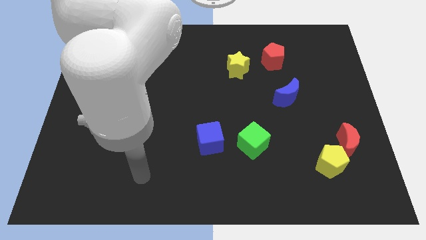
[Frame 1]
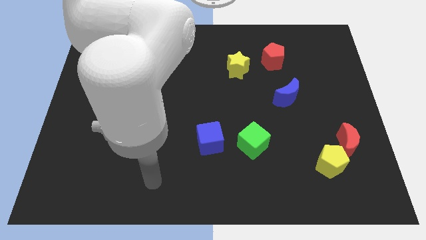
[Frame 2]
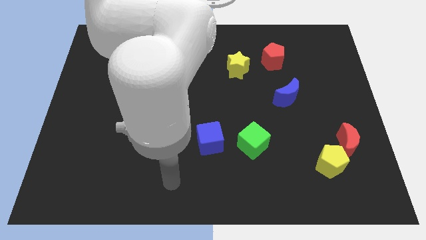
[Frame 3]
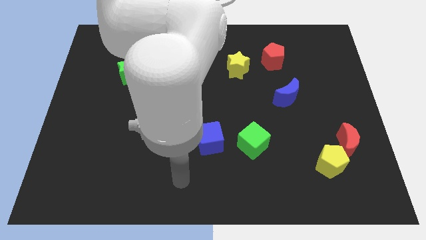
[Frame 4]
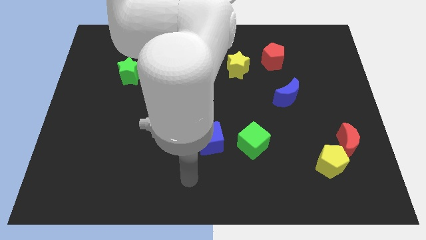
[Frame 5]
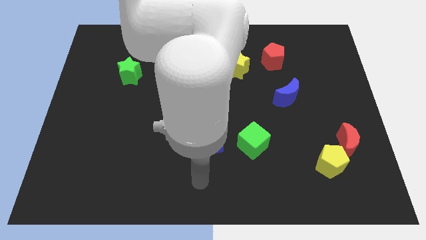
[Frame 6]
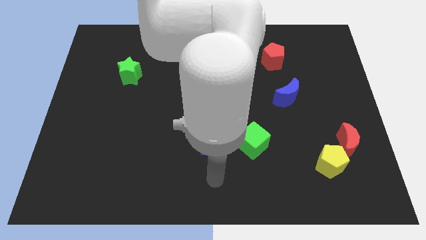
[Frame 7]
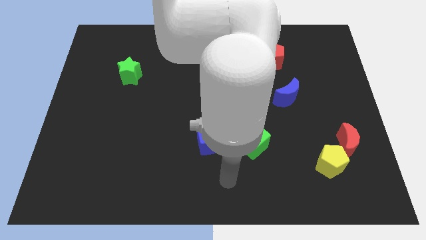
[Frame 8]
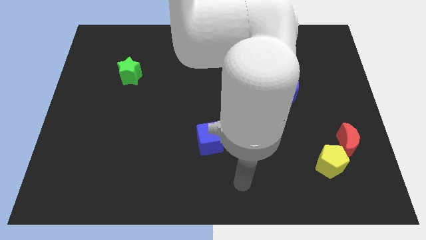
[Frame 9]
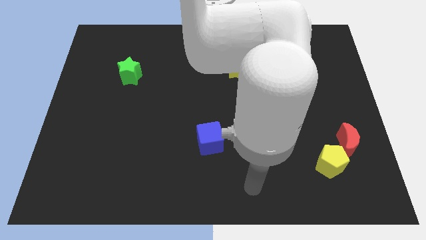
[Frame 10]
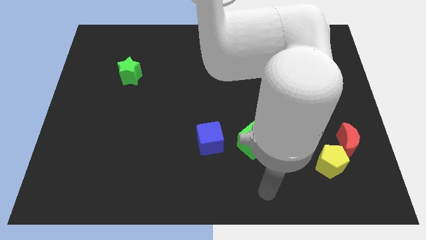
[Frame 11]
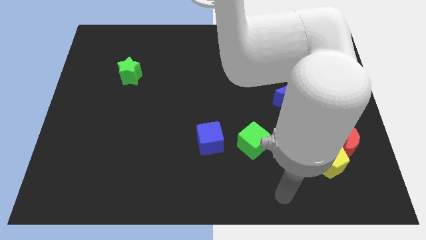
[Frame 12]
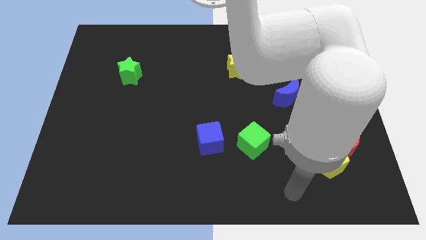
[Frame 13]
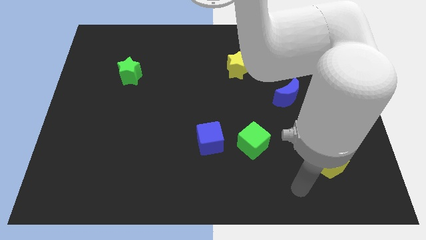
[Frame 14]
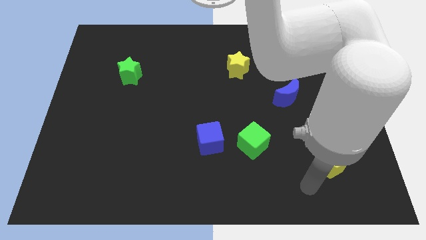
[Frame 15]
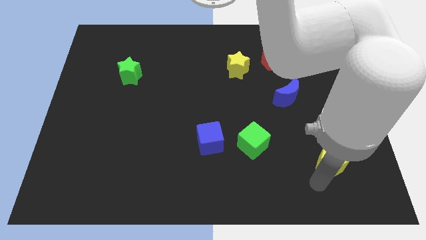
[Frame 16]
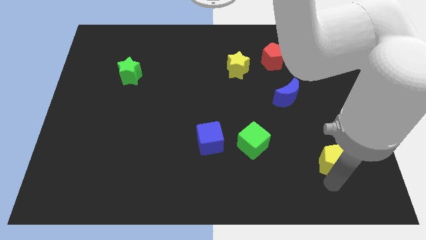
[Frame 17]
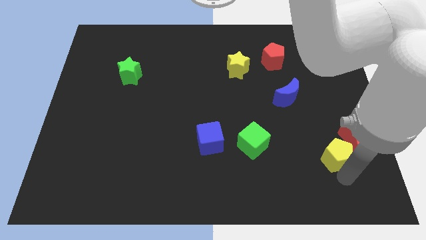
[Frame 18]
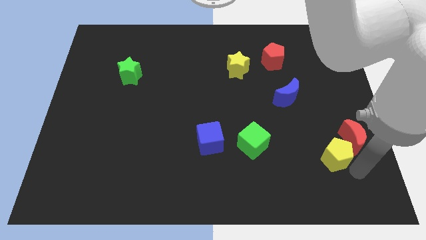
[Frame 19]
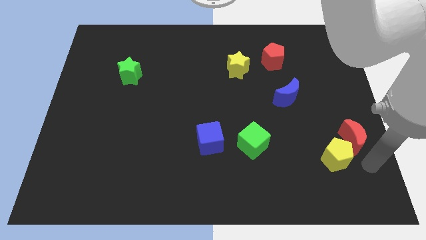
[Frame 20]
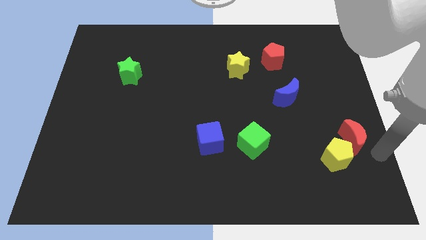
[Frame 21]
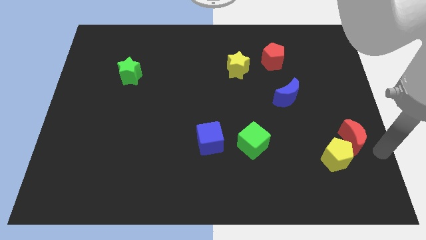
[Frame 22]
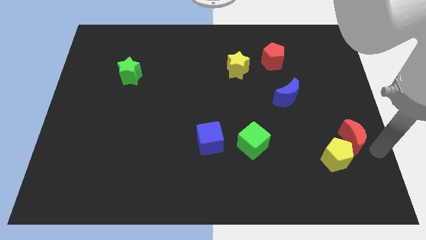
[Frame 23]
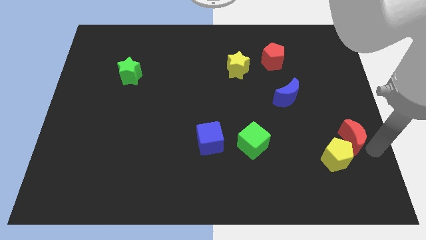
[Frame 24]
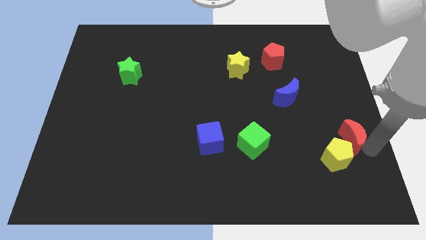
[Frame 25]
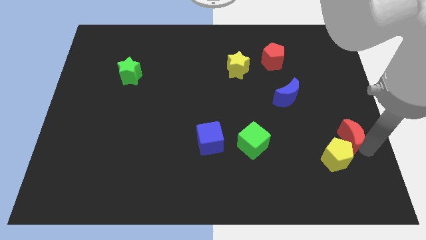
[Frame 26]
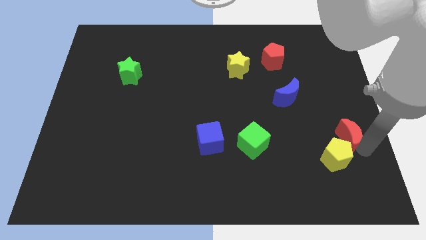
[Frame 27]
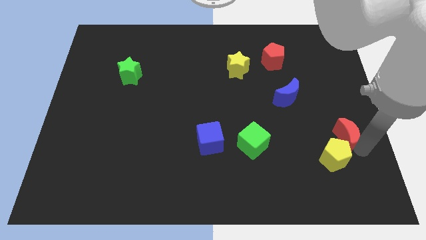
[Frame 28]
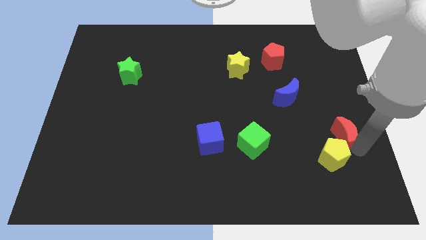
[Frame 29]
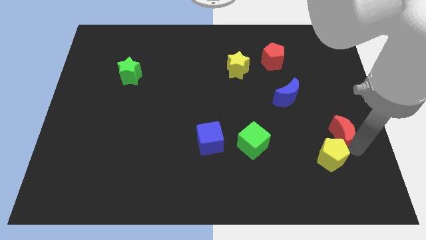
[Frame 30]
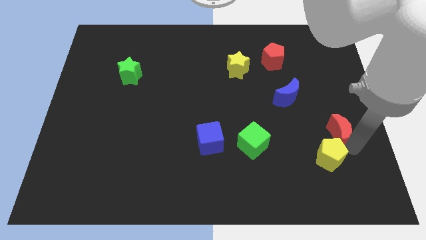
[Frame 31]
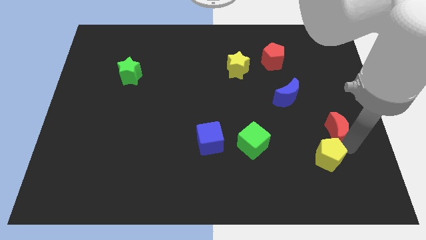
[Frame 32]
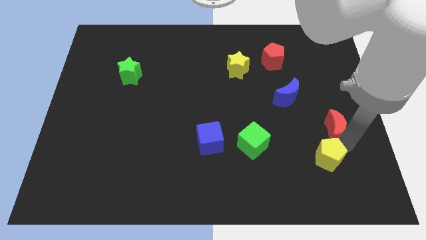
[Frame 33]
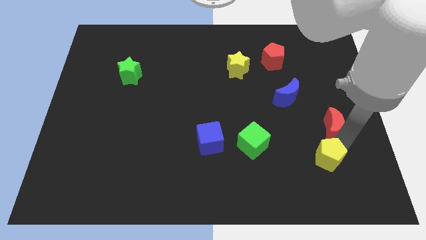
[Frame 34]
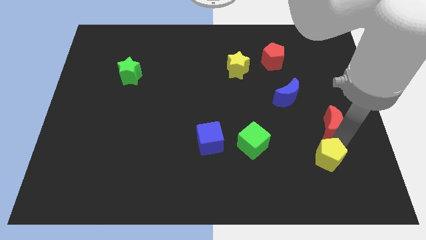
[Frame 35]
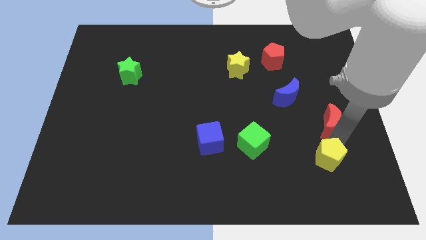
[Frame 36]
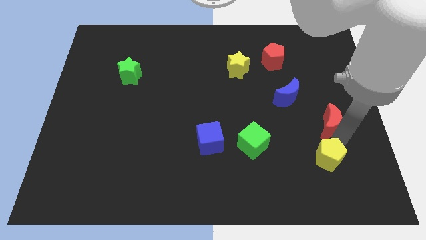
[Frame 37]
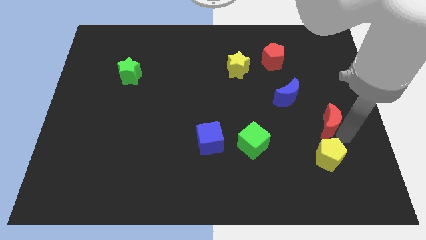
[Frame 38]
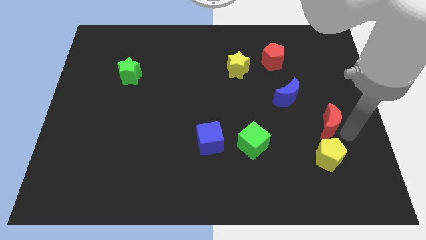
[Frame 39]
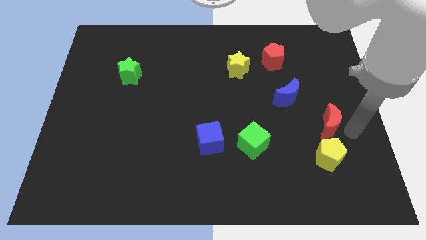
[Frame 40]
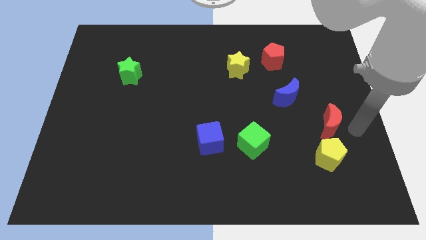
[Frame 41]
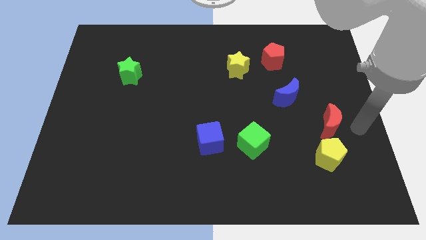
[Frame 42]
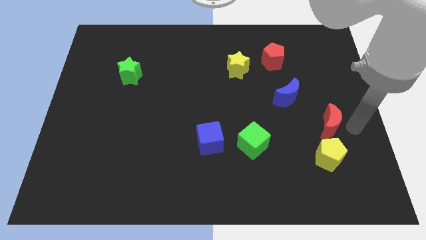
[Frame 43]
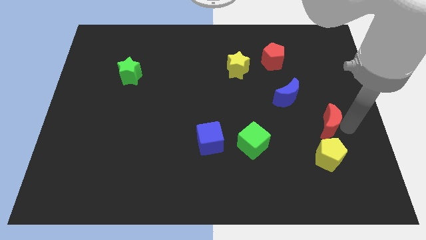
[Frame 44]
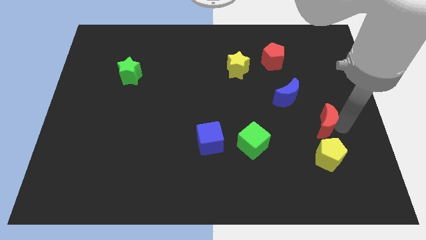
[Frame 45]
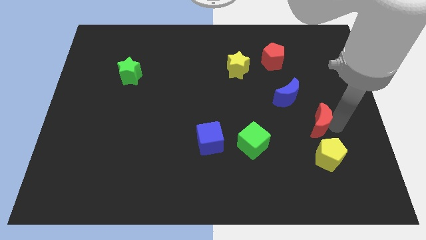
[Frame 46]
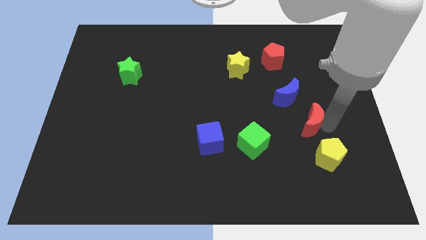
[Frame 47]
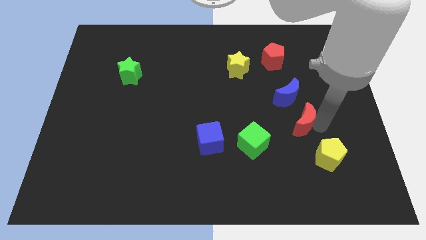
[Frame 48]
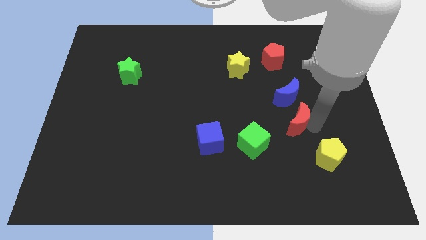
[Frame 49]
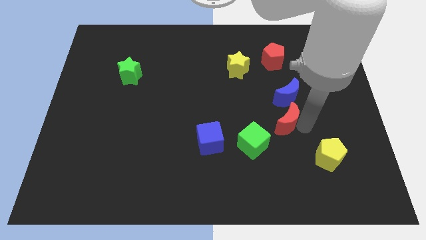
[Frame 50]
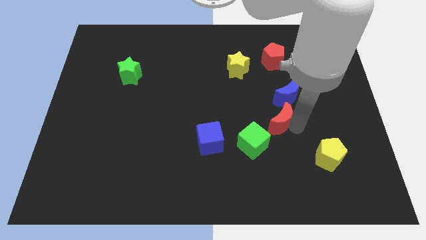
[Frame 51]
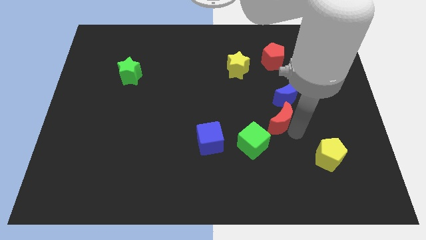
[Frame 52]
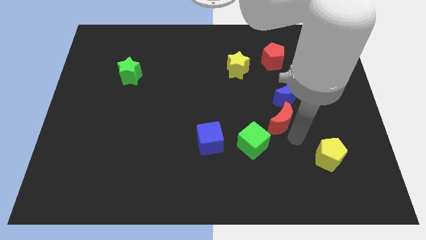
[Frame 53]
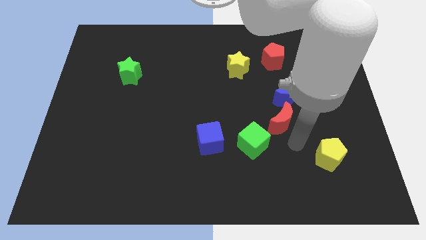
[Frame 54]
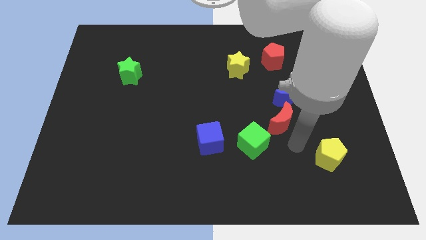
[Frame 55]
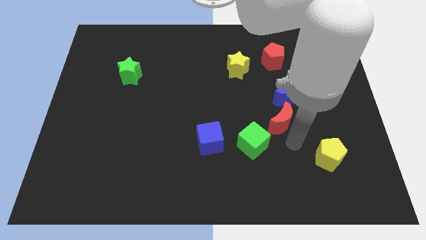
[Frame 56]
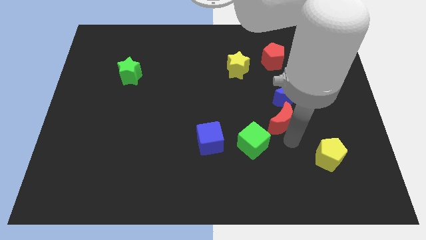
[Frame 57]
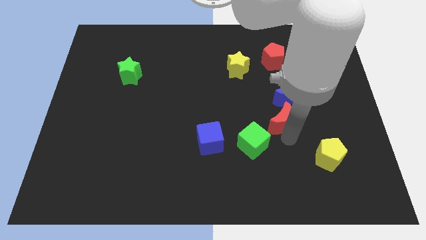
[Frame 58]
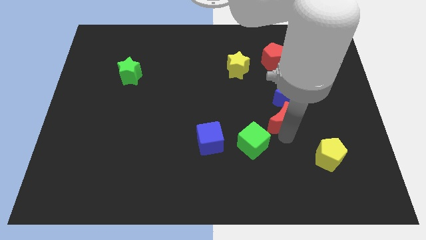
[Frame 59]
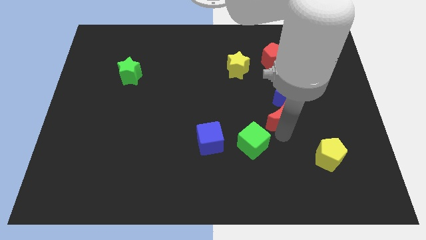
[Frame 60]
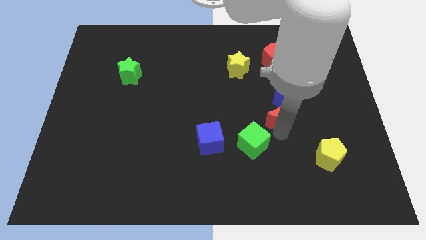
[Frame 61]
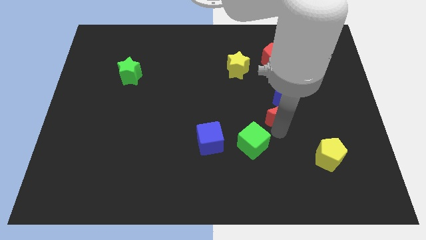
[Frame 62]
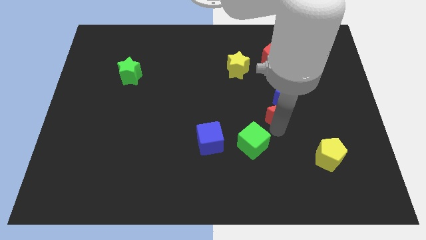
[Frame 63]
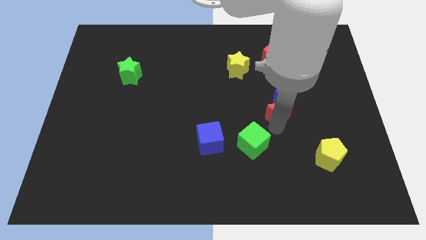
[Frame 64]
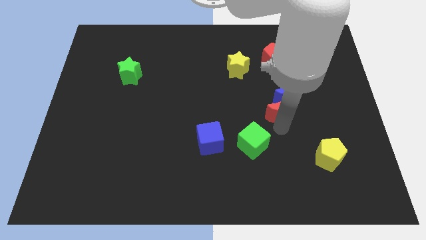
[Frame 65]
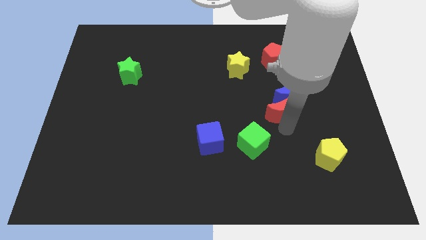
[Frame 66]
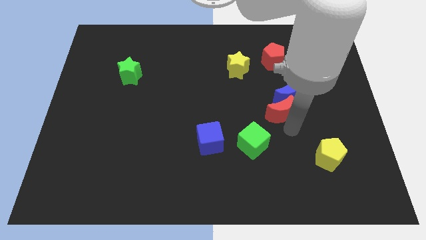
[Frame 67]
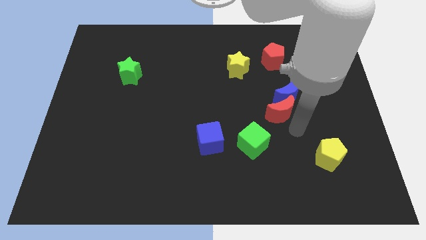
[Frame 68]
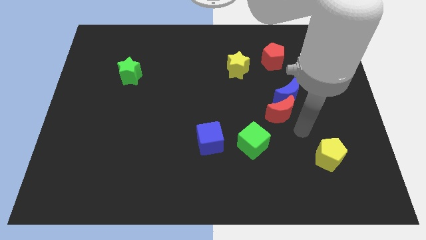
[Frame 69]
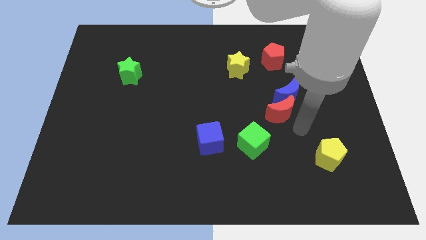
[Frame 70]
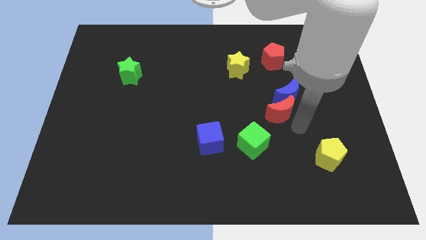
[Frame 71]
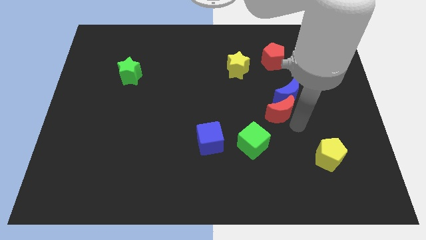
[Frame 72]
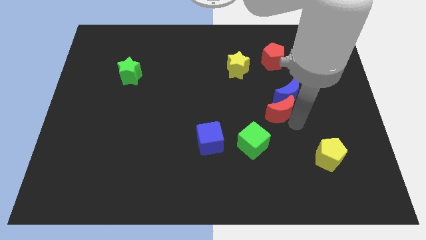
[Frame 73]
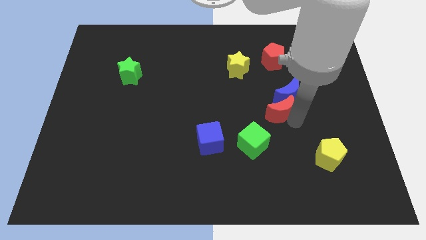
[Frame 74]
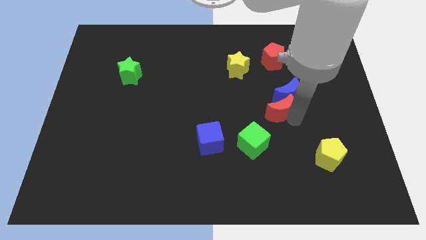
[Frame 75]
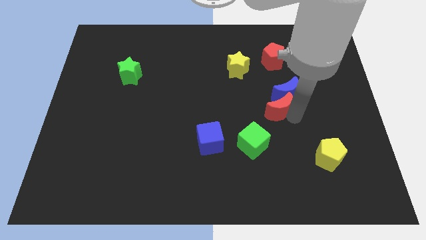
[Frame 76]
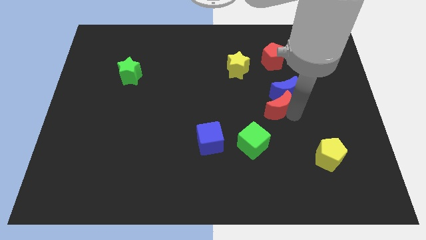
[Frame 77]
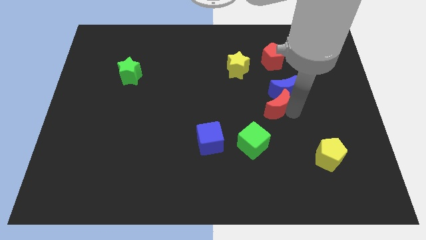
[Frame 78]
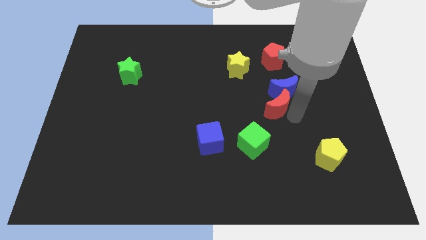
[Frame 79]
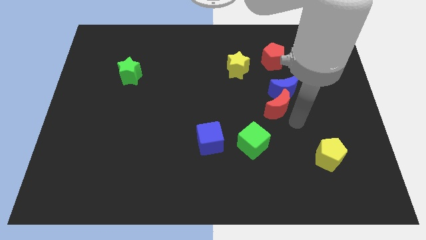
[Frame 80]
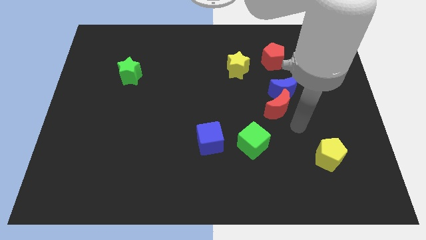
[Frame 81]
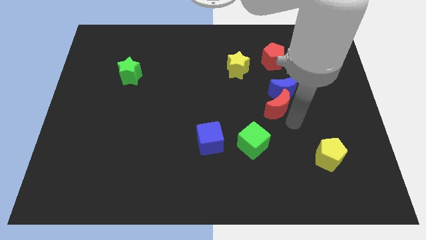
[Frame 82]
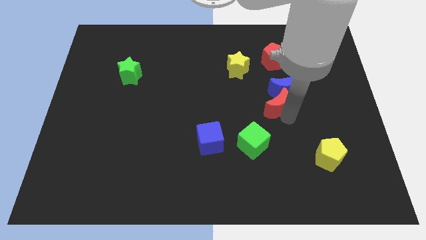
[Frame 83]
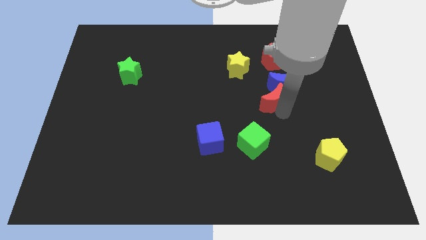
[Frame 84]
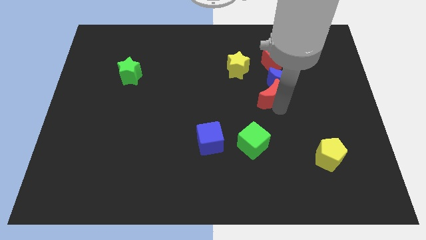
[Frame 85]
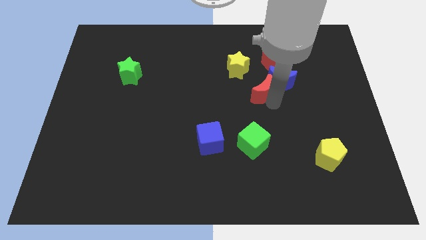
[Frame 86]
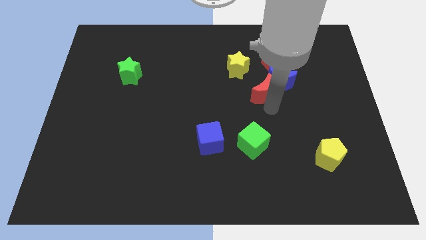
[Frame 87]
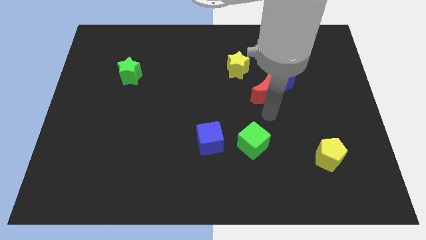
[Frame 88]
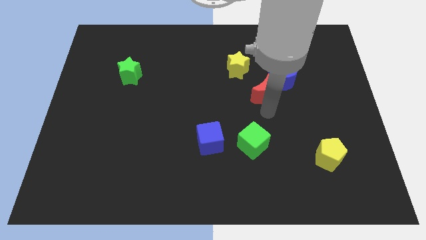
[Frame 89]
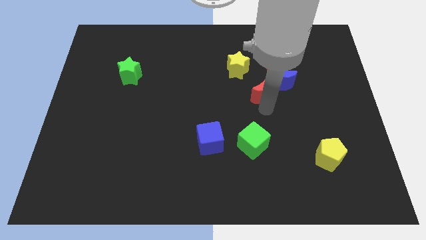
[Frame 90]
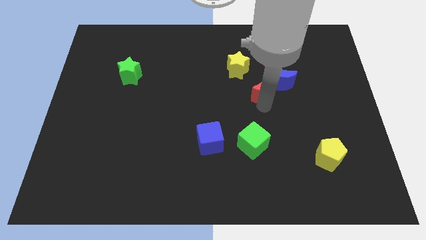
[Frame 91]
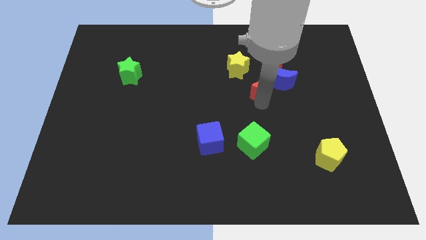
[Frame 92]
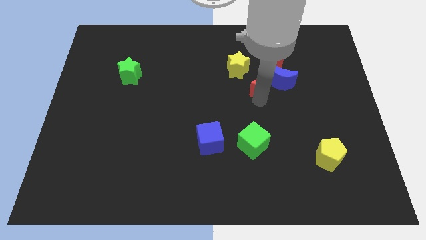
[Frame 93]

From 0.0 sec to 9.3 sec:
push the red moon to the top left side of the blue moon
